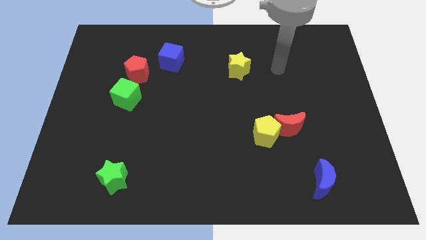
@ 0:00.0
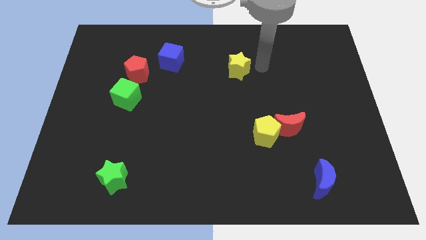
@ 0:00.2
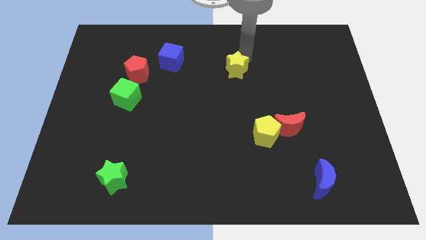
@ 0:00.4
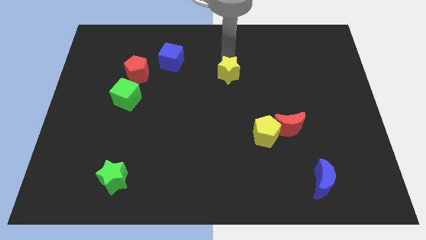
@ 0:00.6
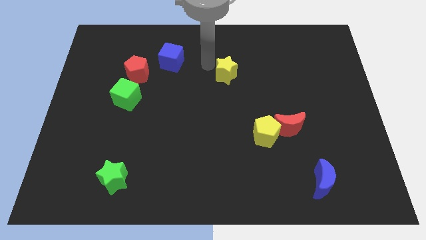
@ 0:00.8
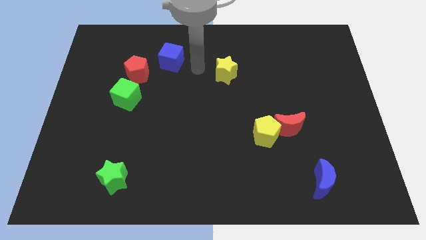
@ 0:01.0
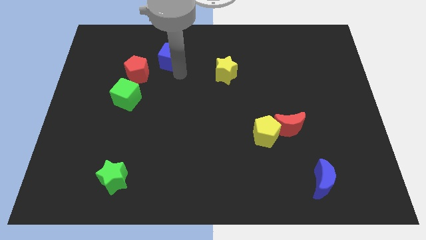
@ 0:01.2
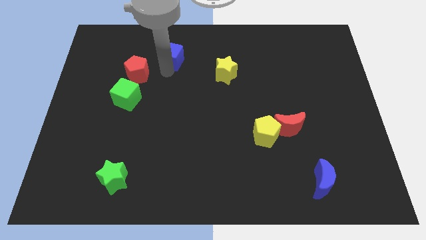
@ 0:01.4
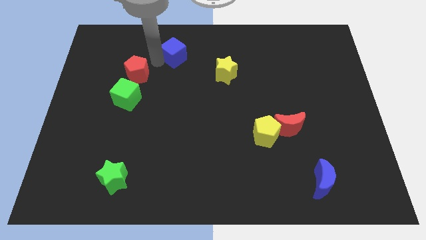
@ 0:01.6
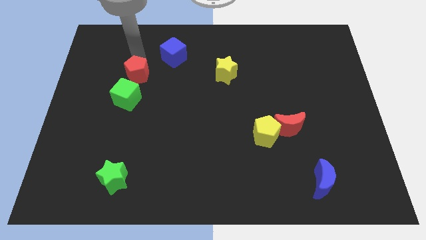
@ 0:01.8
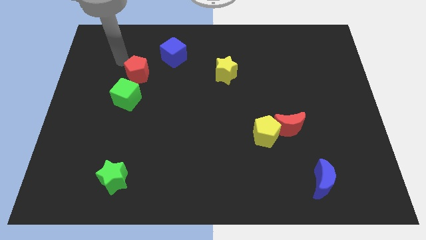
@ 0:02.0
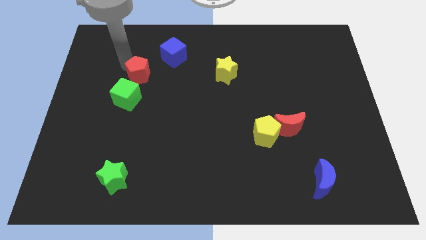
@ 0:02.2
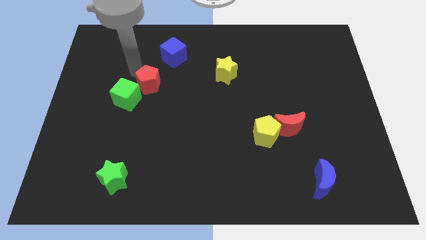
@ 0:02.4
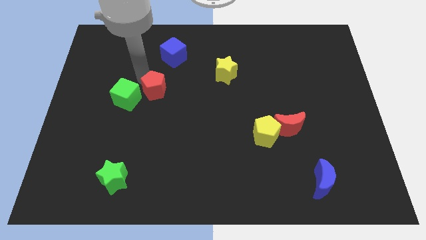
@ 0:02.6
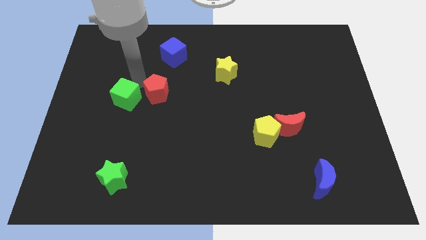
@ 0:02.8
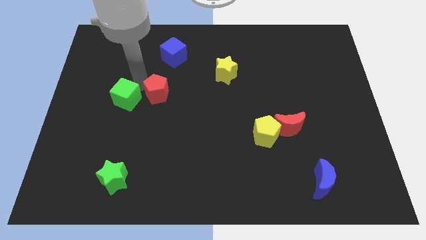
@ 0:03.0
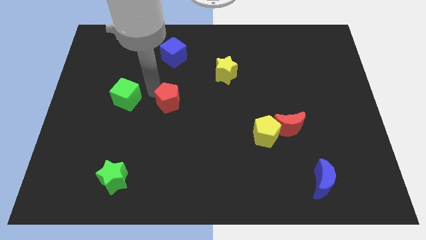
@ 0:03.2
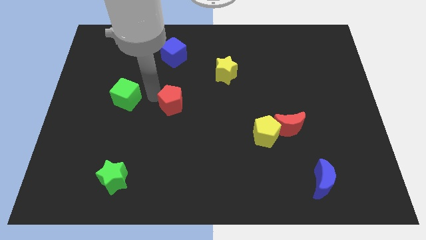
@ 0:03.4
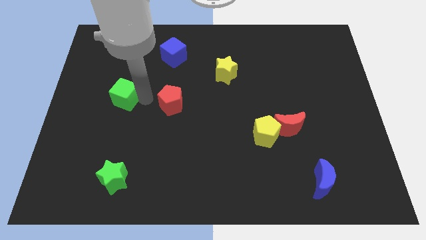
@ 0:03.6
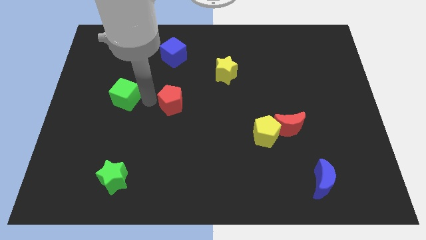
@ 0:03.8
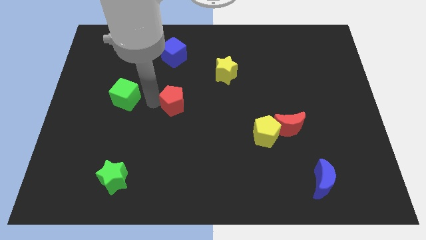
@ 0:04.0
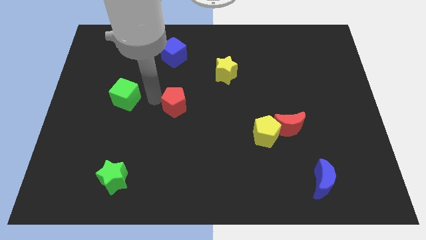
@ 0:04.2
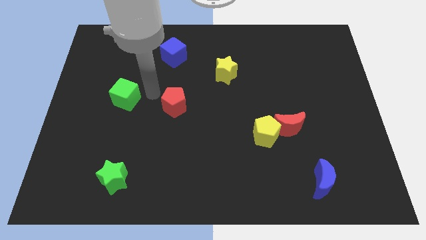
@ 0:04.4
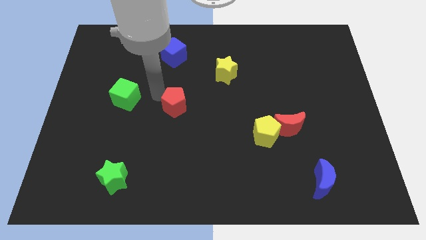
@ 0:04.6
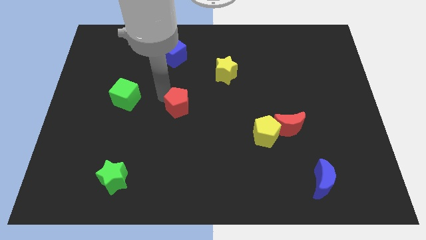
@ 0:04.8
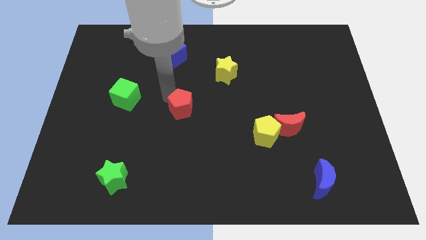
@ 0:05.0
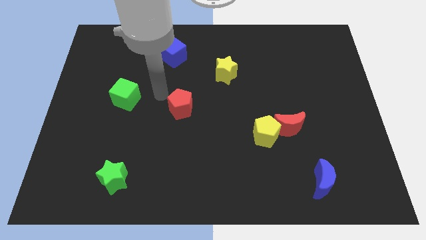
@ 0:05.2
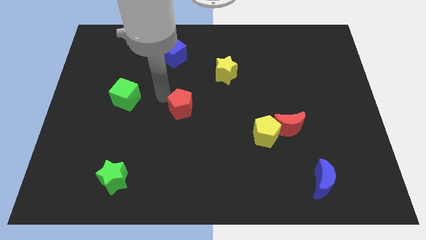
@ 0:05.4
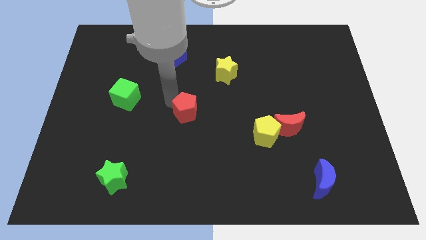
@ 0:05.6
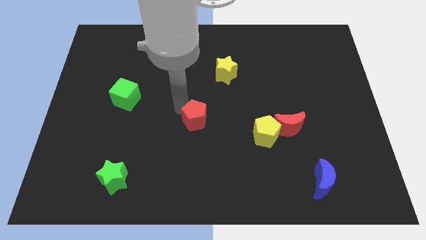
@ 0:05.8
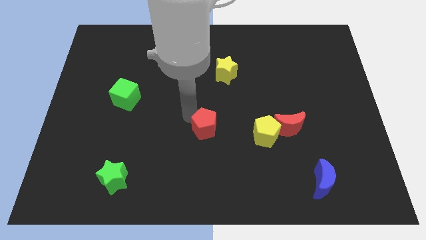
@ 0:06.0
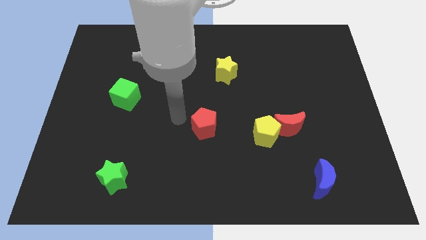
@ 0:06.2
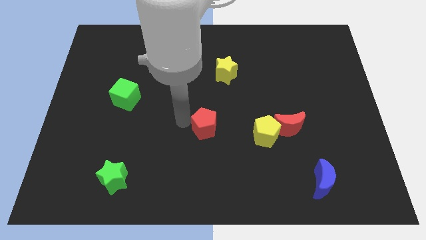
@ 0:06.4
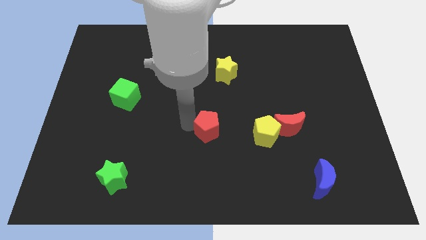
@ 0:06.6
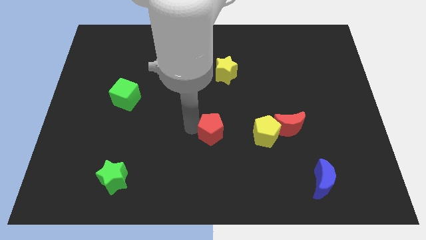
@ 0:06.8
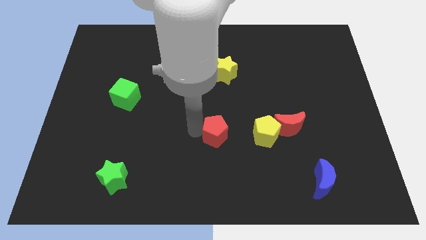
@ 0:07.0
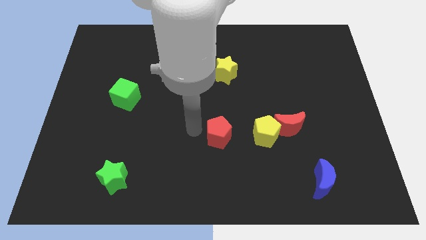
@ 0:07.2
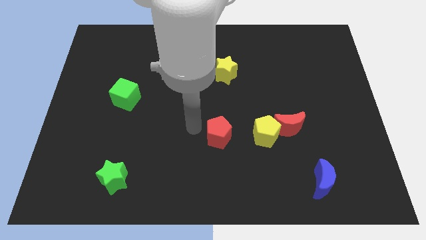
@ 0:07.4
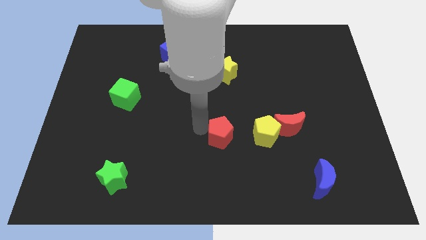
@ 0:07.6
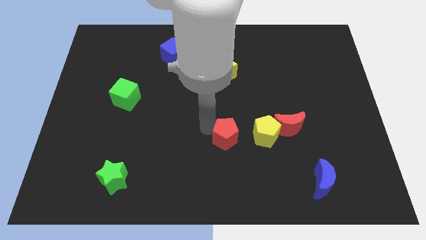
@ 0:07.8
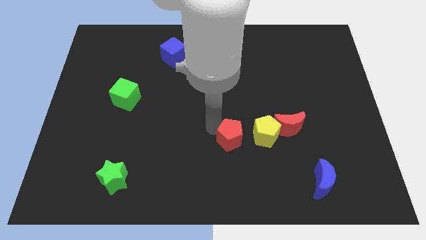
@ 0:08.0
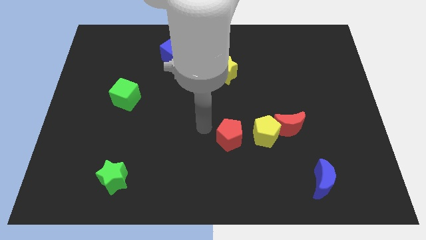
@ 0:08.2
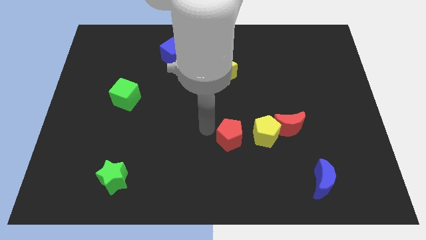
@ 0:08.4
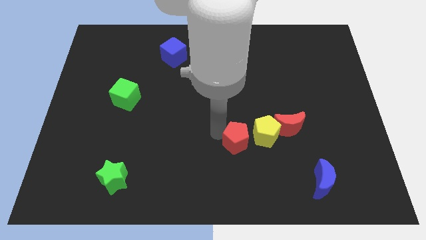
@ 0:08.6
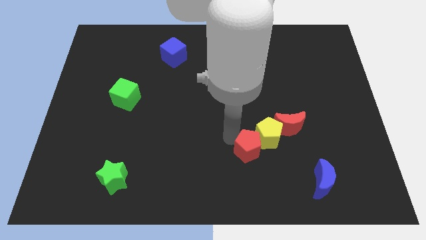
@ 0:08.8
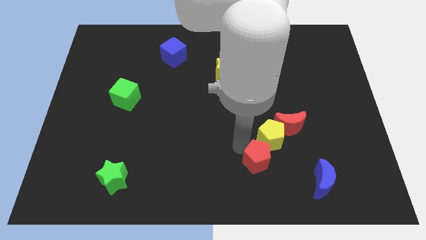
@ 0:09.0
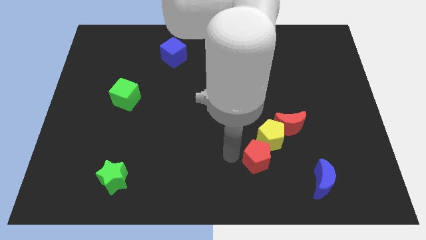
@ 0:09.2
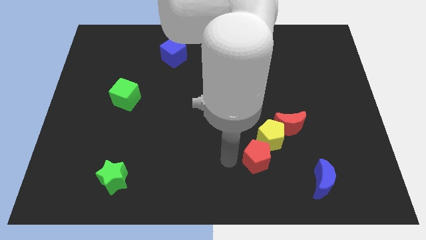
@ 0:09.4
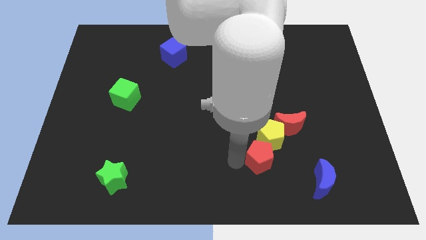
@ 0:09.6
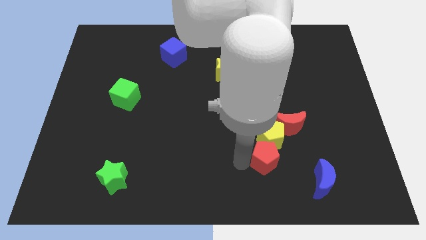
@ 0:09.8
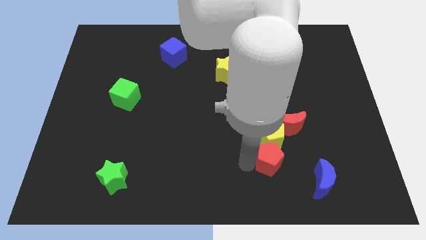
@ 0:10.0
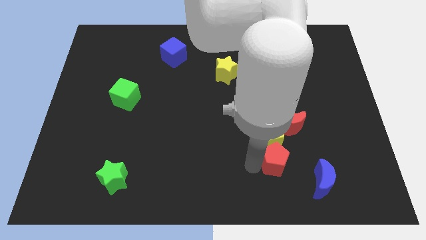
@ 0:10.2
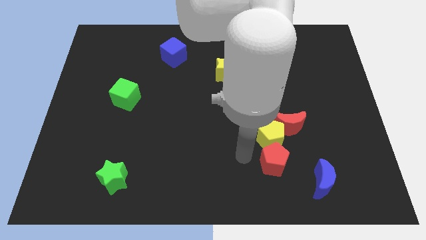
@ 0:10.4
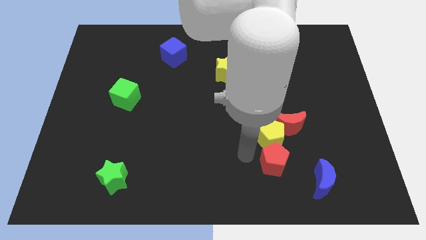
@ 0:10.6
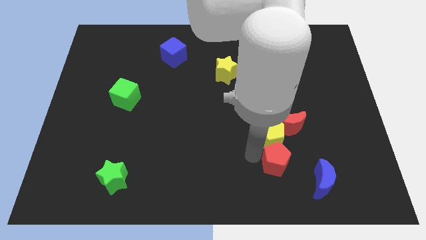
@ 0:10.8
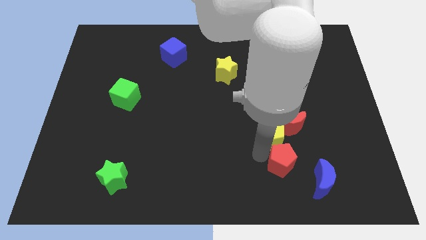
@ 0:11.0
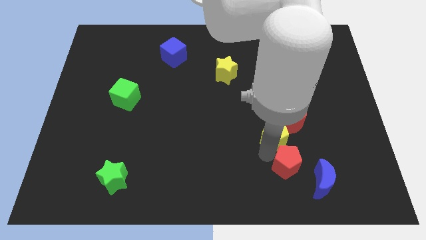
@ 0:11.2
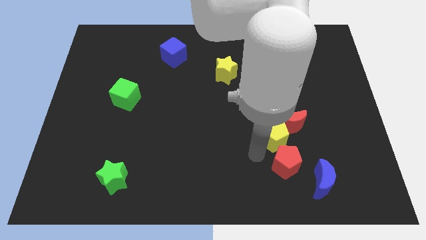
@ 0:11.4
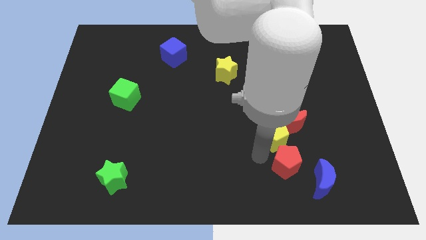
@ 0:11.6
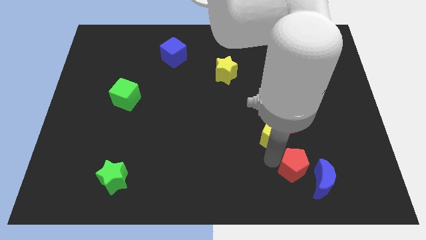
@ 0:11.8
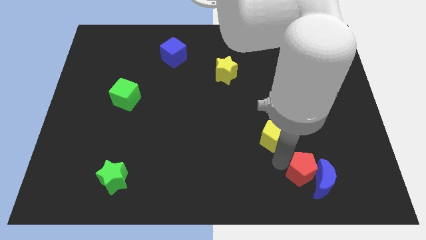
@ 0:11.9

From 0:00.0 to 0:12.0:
move the red pentagon to the blue moon
